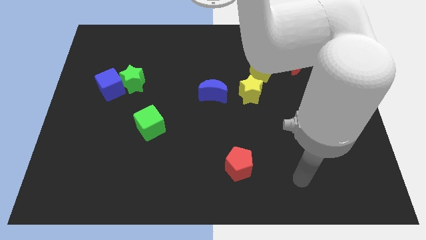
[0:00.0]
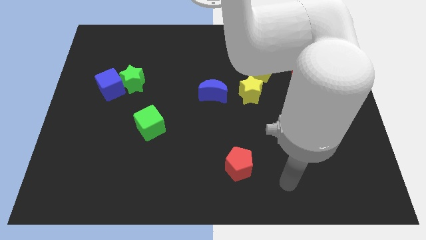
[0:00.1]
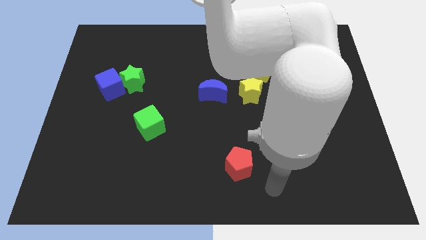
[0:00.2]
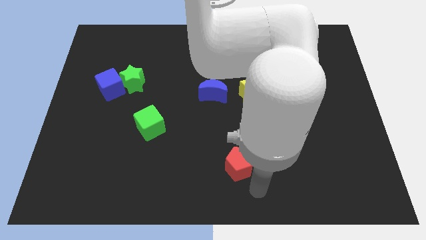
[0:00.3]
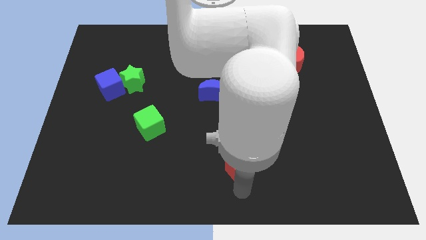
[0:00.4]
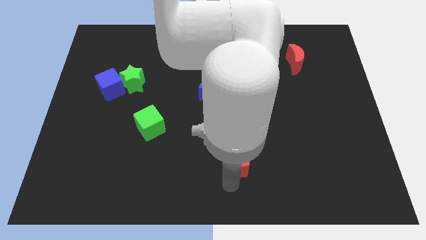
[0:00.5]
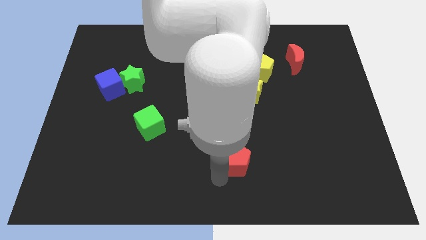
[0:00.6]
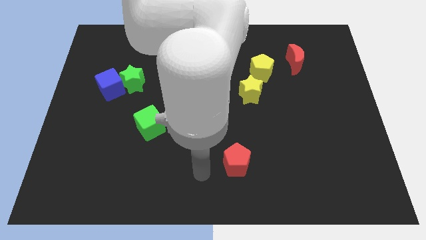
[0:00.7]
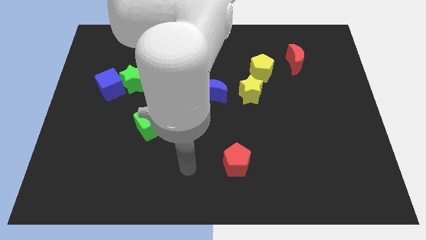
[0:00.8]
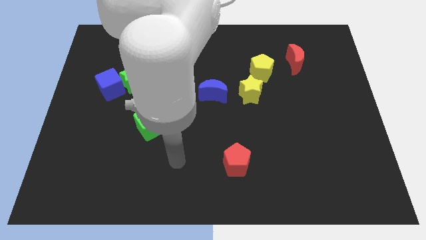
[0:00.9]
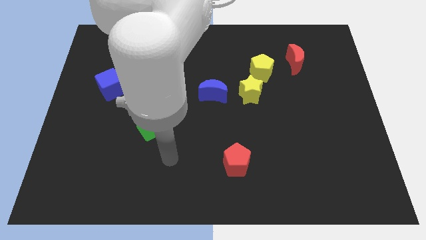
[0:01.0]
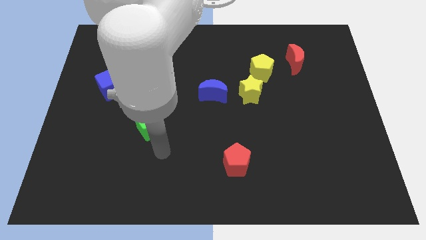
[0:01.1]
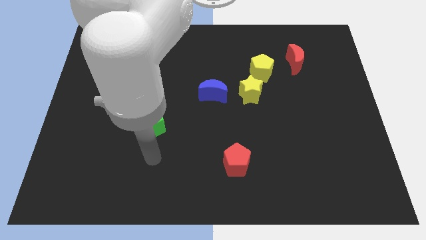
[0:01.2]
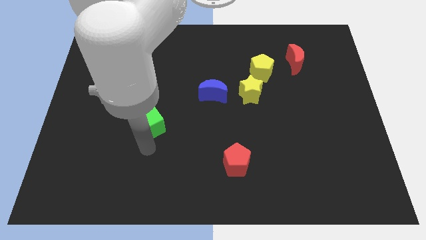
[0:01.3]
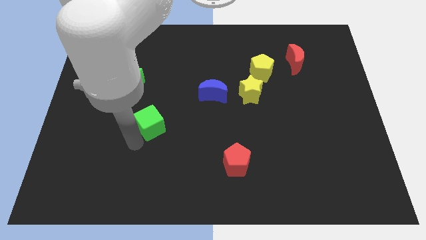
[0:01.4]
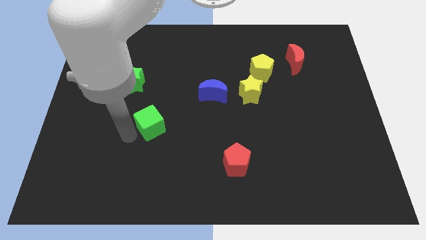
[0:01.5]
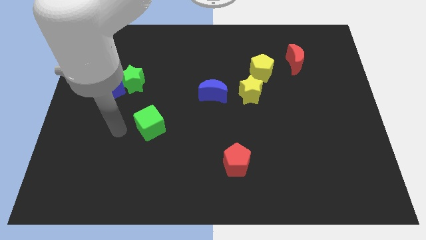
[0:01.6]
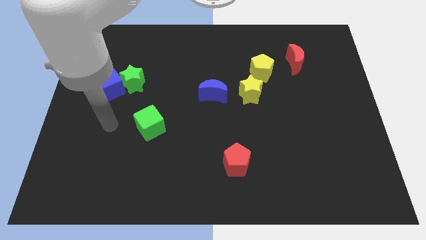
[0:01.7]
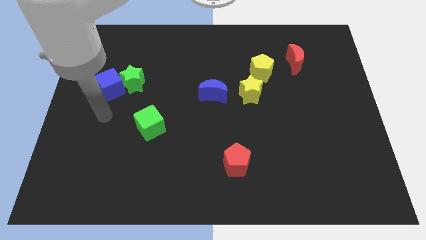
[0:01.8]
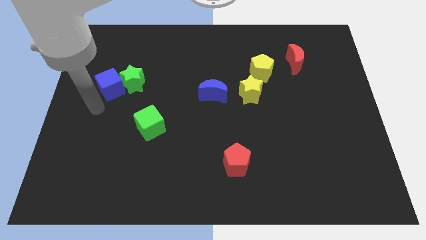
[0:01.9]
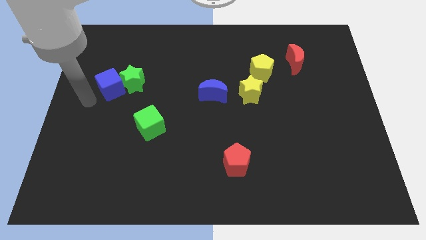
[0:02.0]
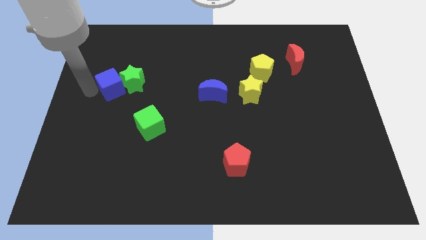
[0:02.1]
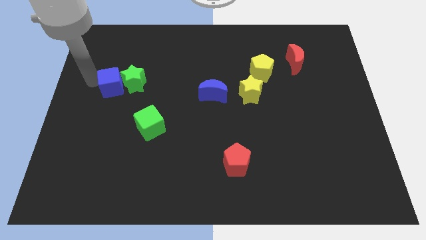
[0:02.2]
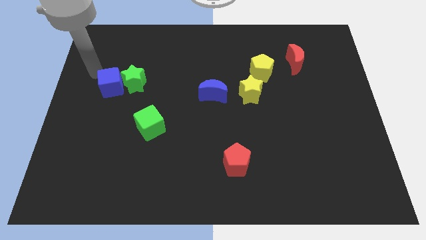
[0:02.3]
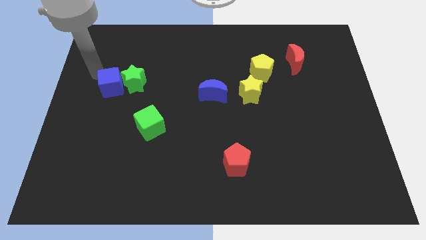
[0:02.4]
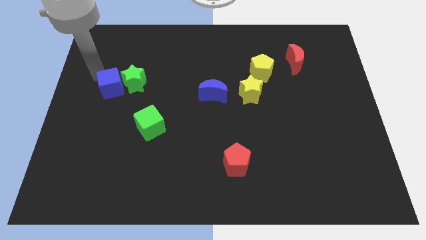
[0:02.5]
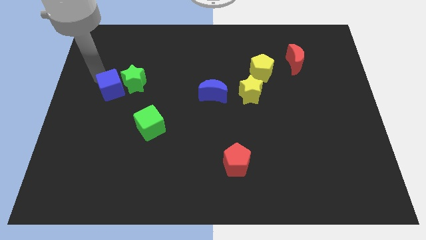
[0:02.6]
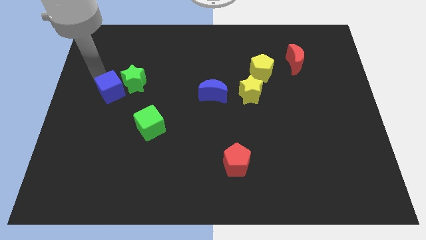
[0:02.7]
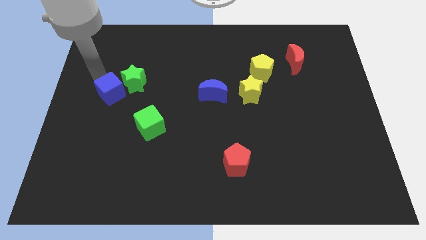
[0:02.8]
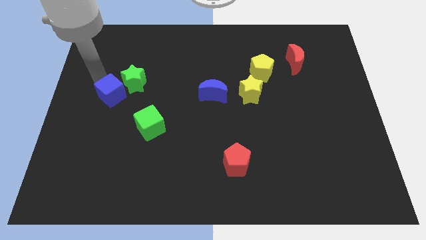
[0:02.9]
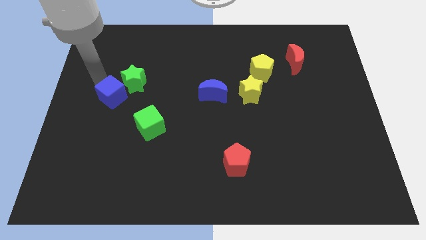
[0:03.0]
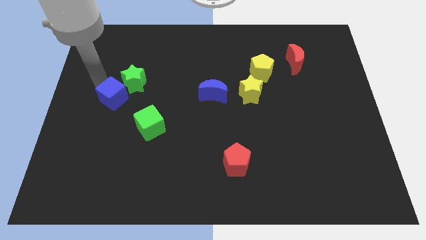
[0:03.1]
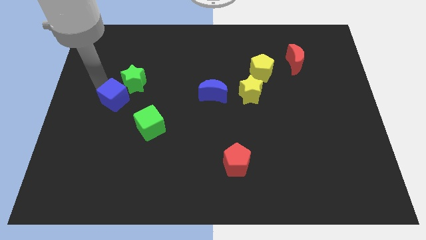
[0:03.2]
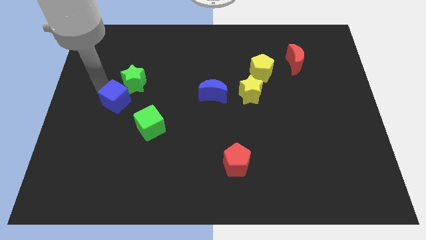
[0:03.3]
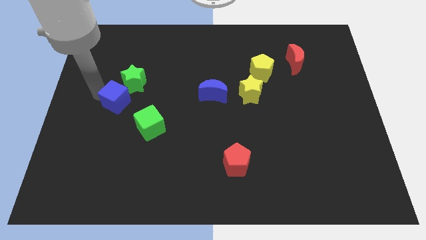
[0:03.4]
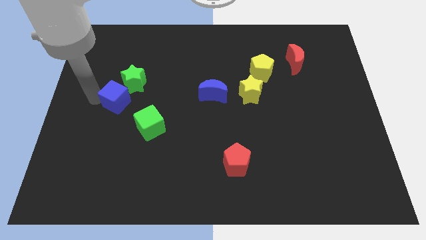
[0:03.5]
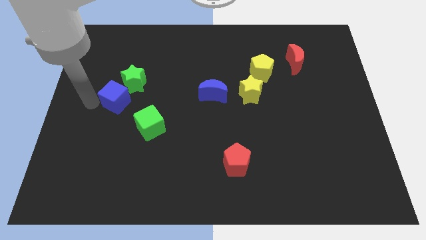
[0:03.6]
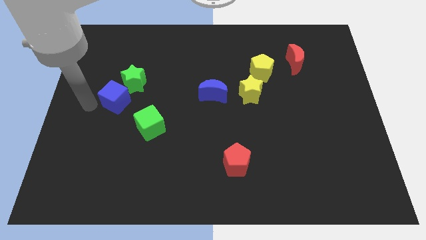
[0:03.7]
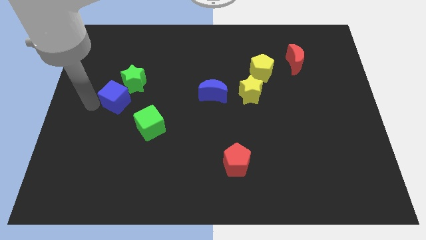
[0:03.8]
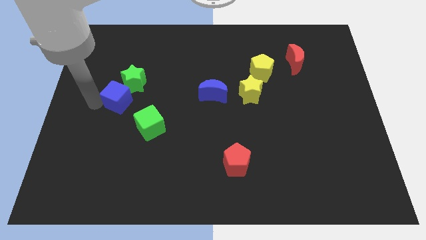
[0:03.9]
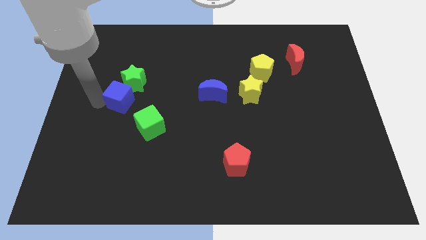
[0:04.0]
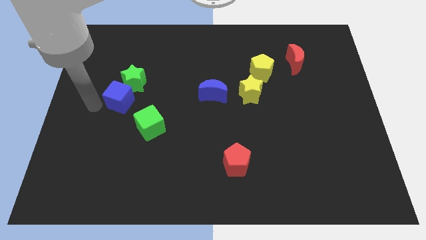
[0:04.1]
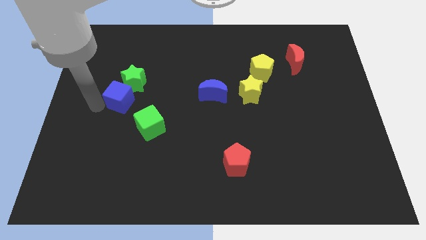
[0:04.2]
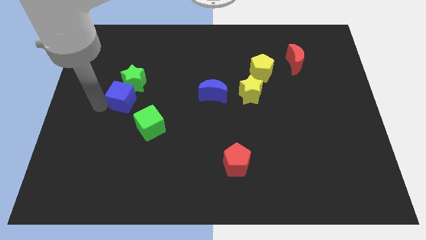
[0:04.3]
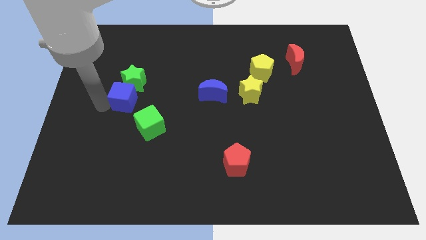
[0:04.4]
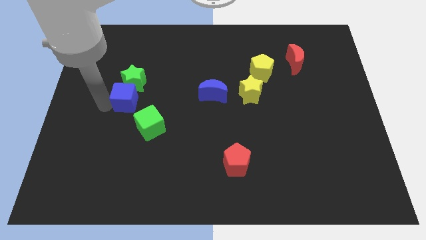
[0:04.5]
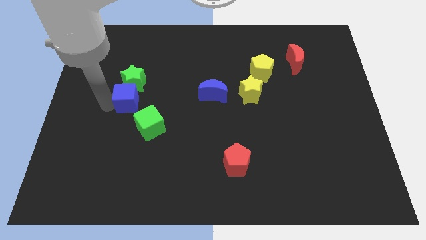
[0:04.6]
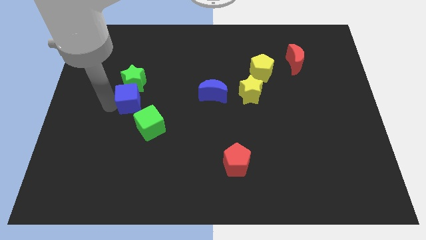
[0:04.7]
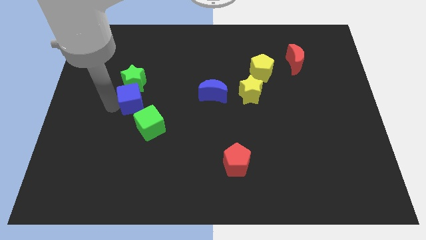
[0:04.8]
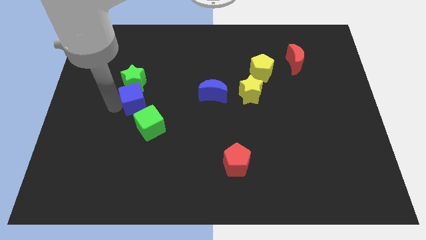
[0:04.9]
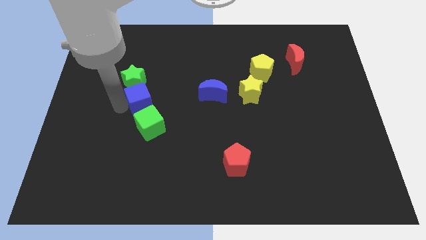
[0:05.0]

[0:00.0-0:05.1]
slightly move the blue cube right

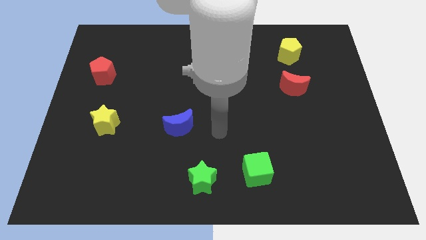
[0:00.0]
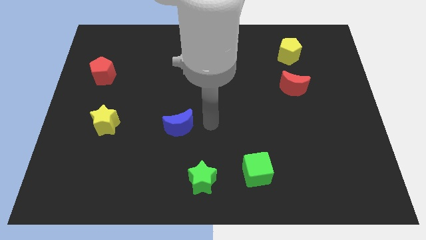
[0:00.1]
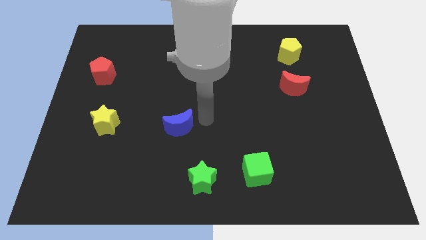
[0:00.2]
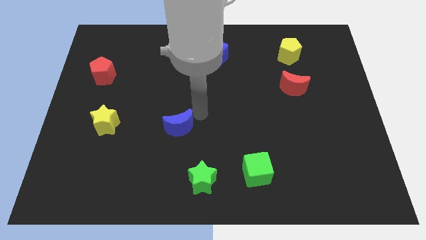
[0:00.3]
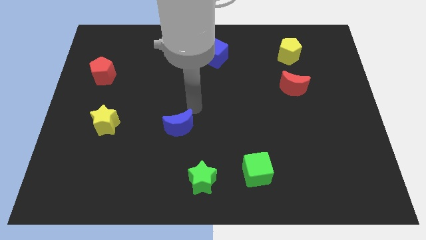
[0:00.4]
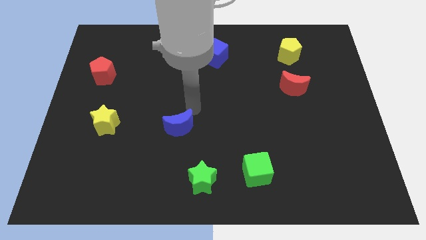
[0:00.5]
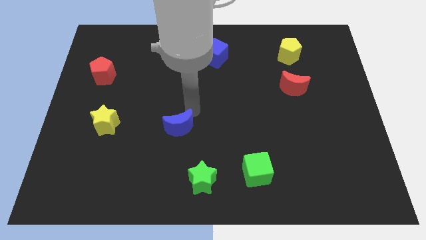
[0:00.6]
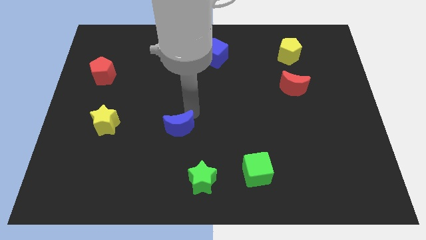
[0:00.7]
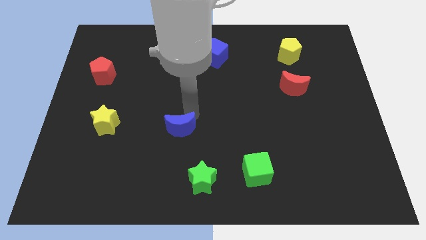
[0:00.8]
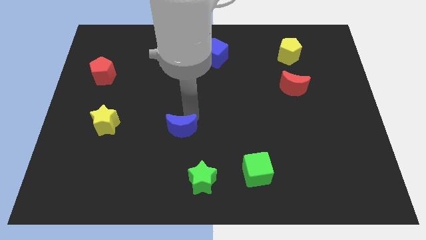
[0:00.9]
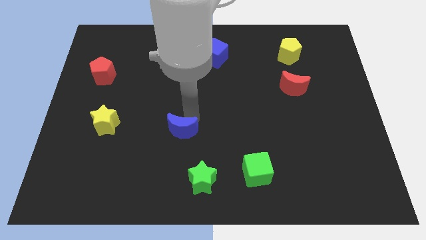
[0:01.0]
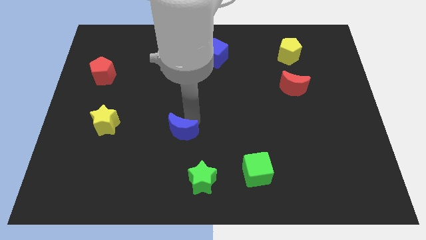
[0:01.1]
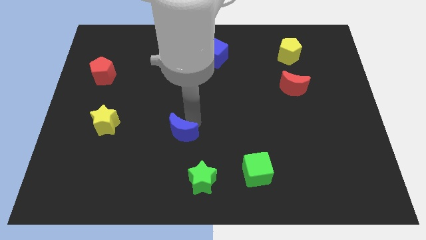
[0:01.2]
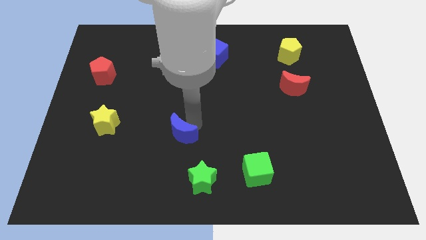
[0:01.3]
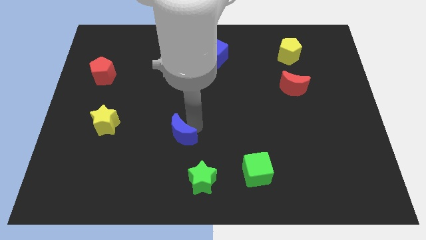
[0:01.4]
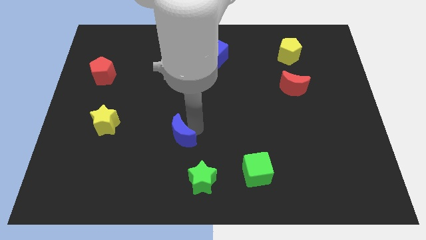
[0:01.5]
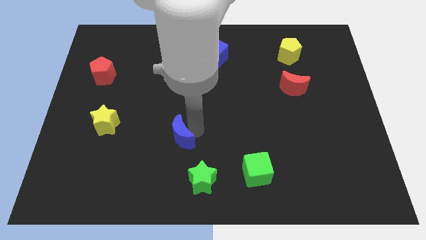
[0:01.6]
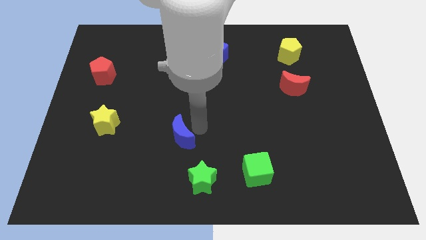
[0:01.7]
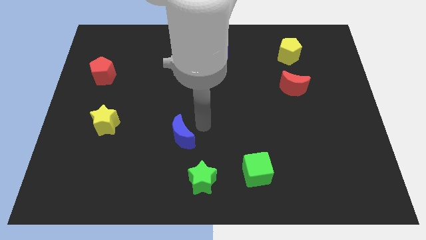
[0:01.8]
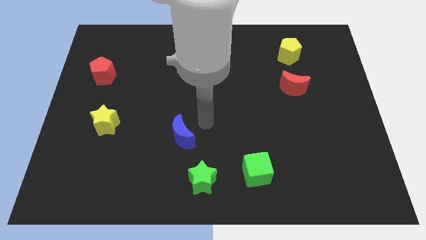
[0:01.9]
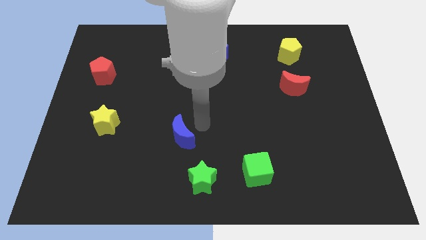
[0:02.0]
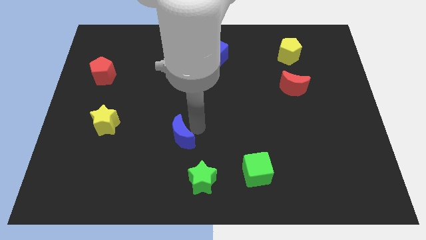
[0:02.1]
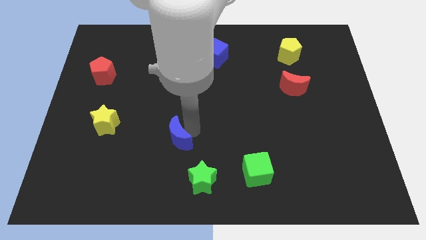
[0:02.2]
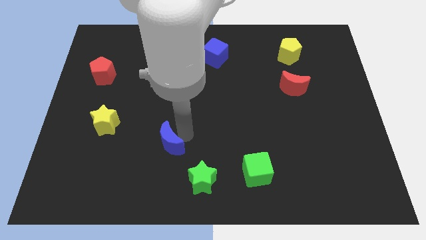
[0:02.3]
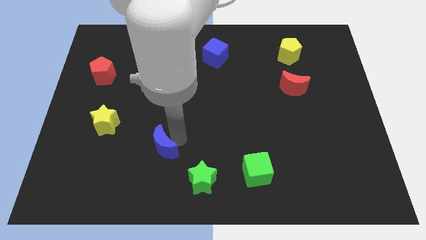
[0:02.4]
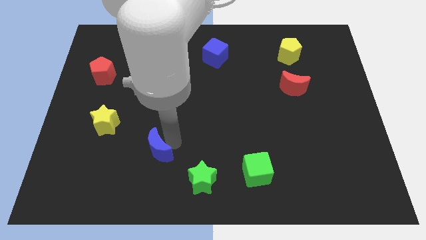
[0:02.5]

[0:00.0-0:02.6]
slightly push the blue moon downwards and to the left
